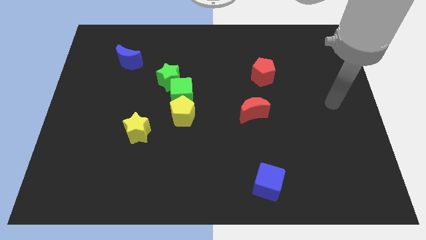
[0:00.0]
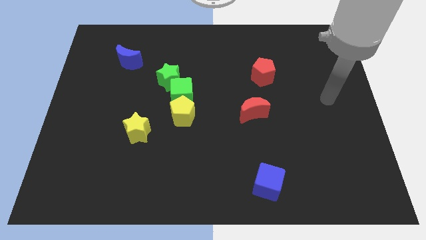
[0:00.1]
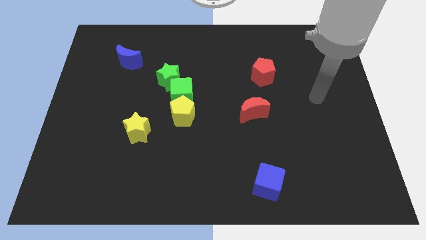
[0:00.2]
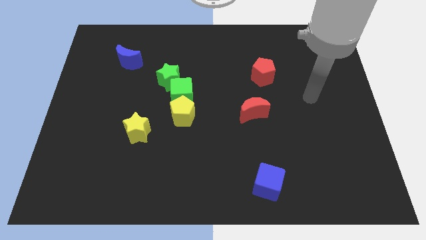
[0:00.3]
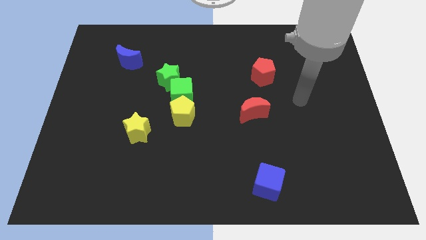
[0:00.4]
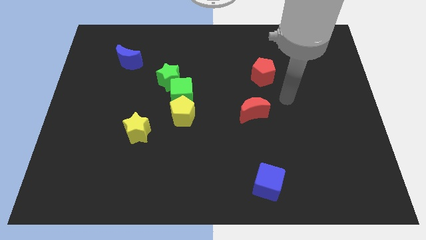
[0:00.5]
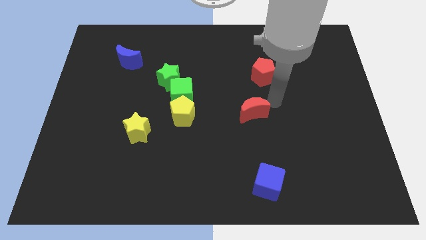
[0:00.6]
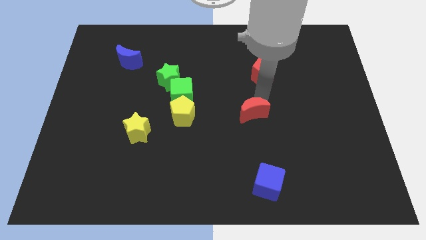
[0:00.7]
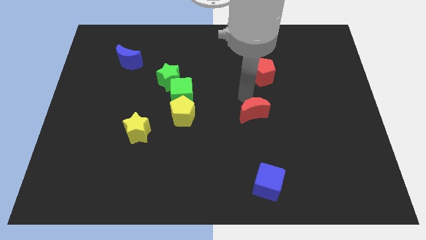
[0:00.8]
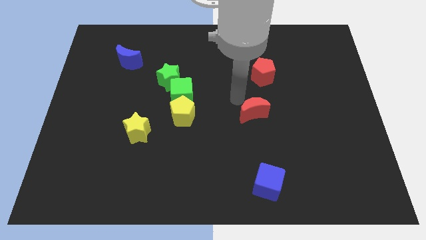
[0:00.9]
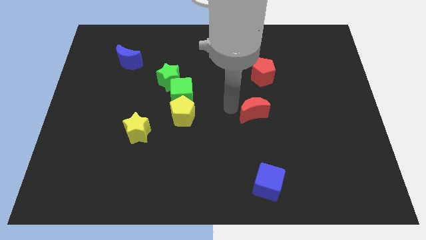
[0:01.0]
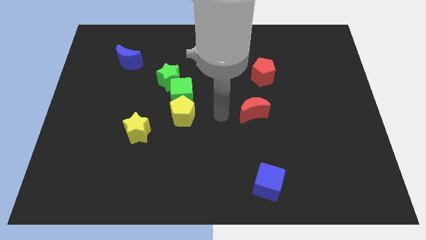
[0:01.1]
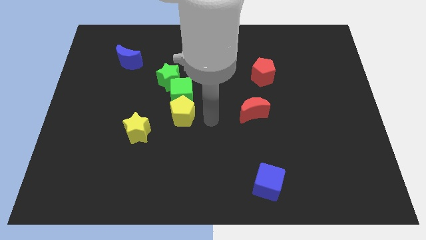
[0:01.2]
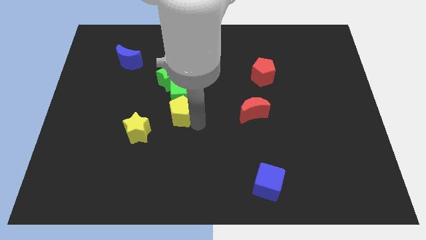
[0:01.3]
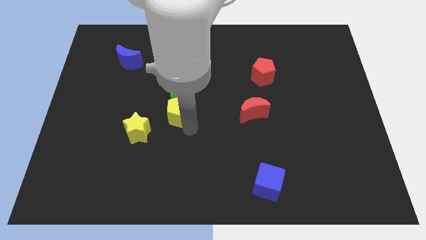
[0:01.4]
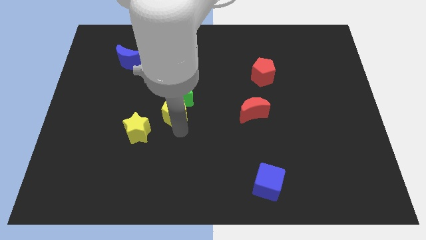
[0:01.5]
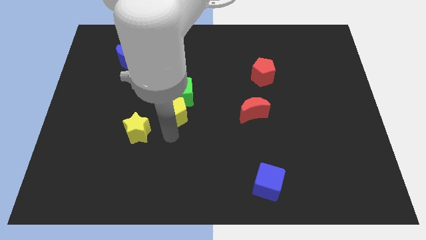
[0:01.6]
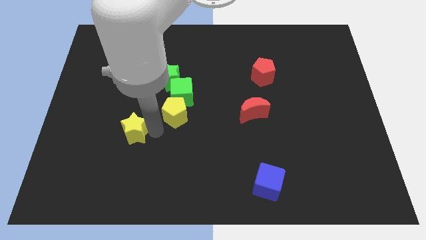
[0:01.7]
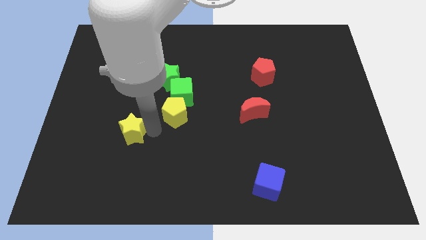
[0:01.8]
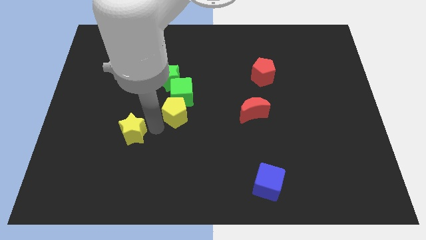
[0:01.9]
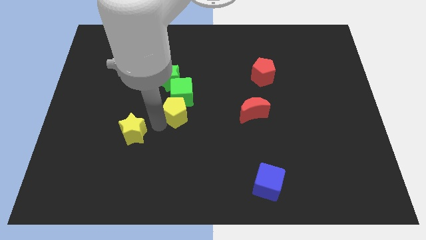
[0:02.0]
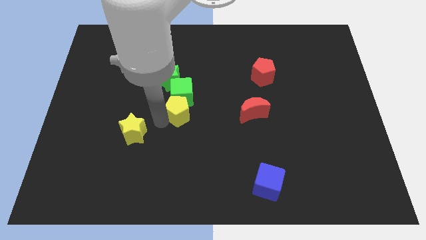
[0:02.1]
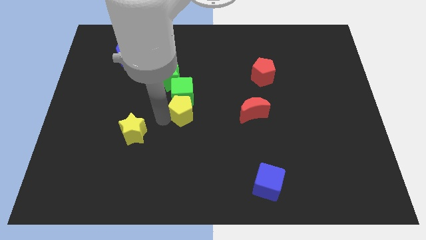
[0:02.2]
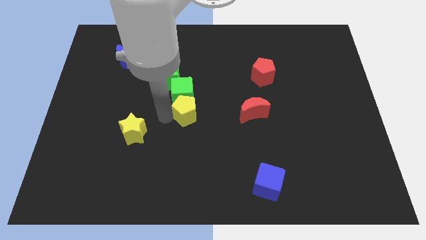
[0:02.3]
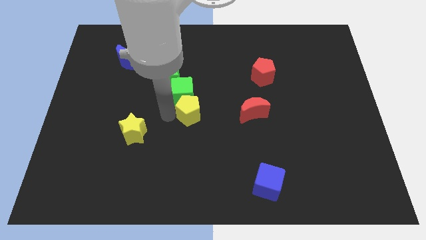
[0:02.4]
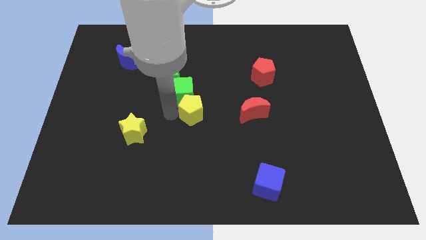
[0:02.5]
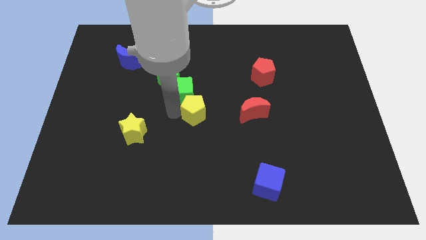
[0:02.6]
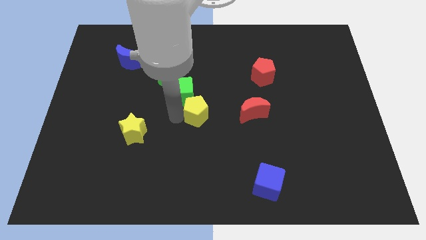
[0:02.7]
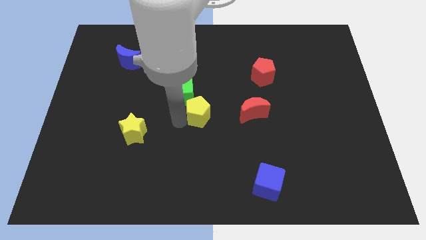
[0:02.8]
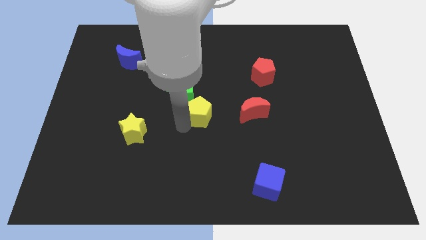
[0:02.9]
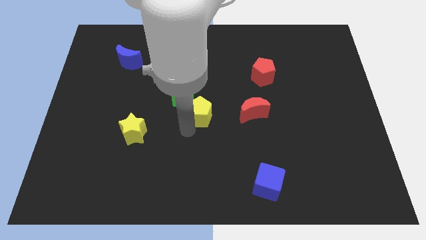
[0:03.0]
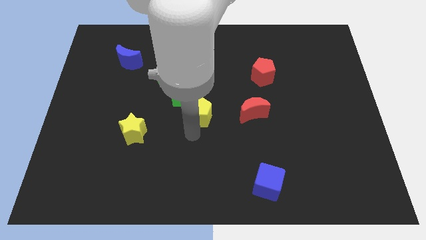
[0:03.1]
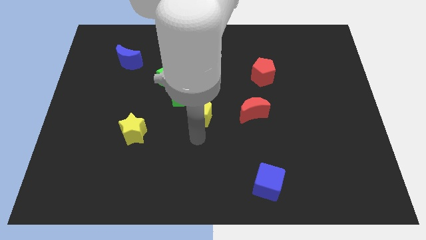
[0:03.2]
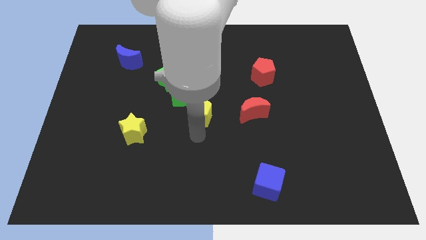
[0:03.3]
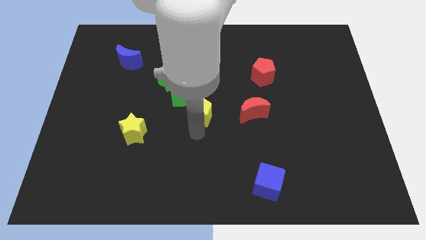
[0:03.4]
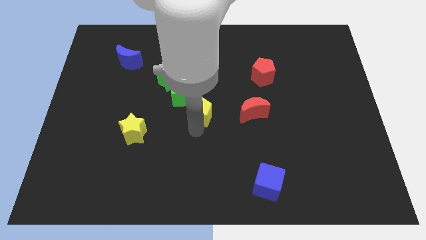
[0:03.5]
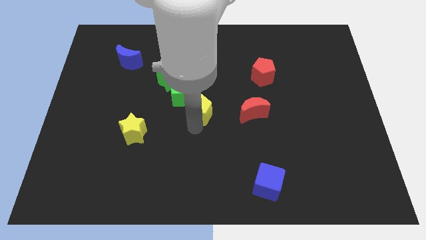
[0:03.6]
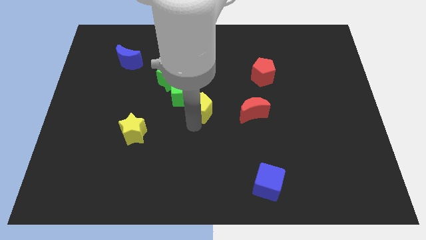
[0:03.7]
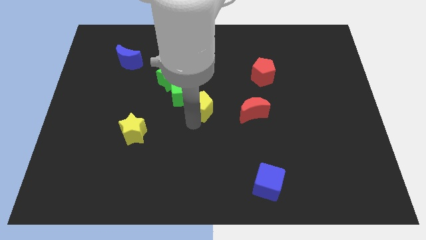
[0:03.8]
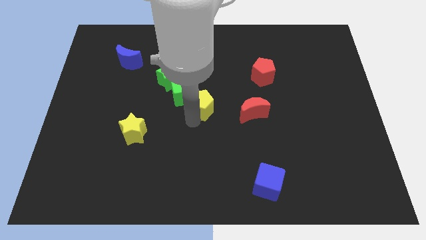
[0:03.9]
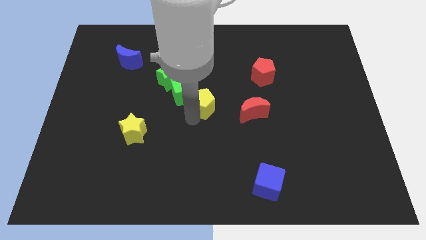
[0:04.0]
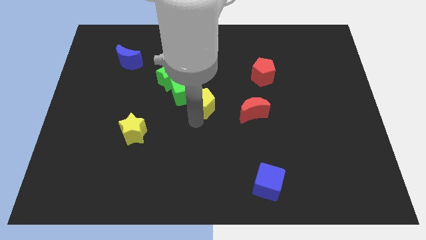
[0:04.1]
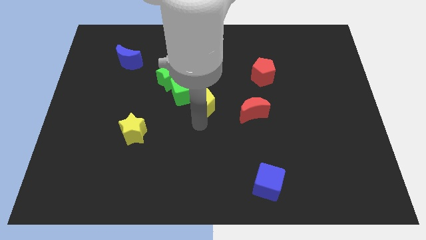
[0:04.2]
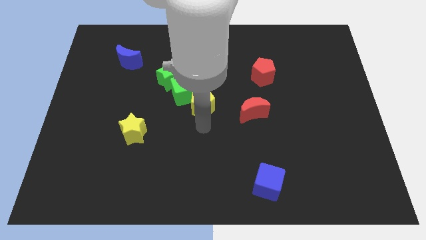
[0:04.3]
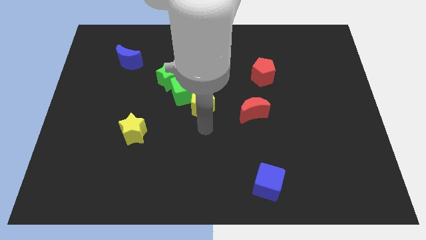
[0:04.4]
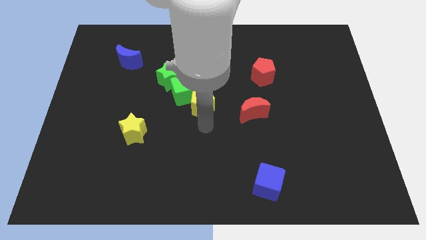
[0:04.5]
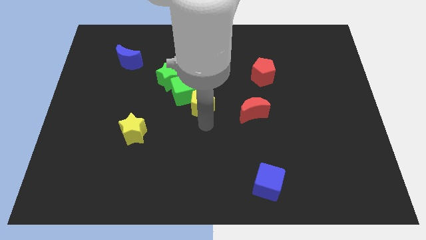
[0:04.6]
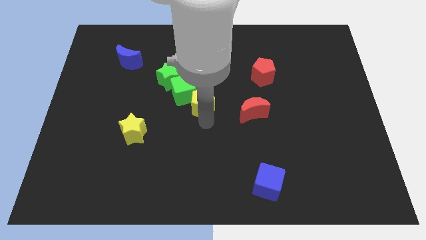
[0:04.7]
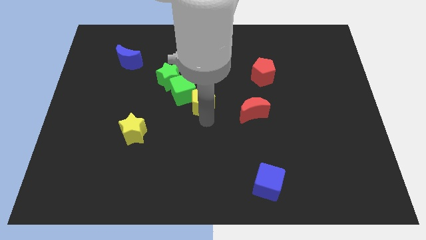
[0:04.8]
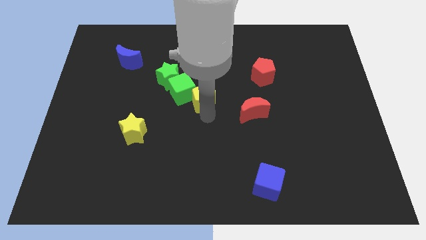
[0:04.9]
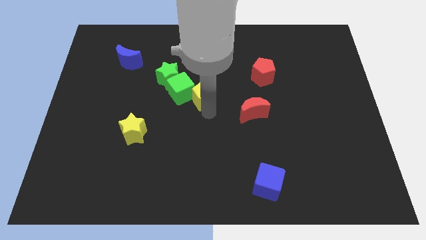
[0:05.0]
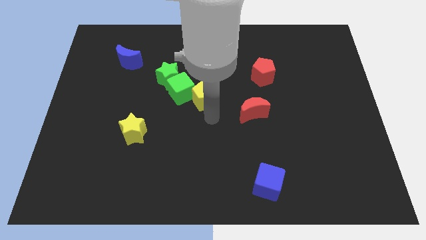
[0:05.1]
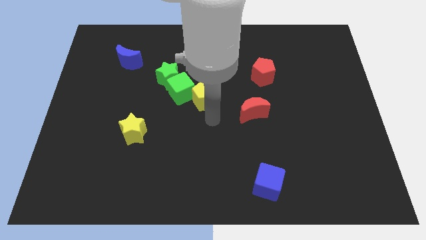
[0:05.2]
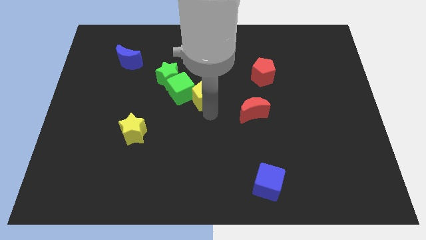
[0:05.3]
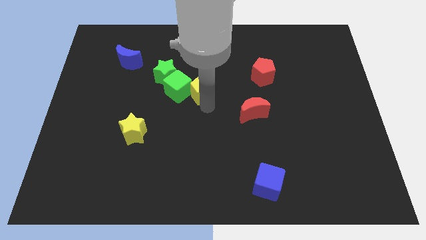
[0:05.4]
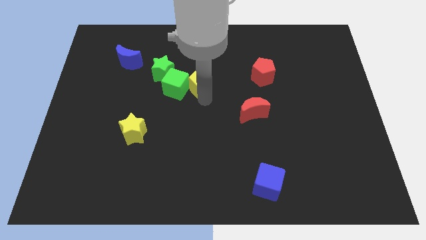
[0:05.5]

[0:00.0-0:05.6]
slide the yellow pentagon somewhat upwards

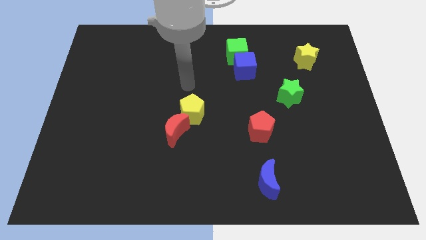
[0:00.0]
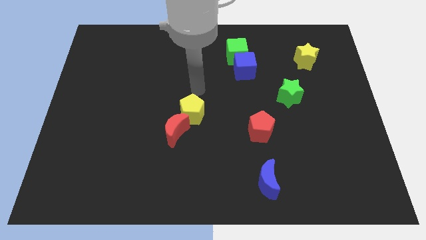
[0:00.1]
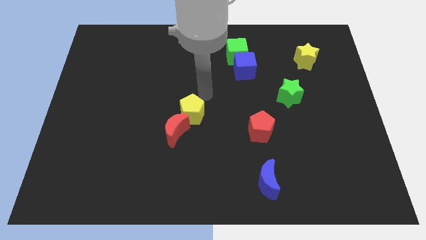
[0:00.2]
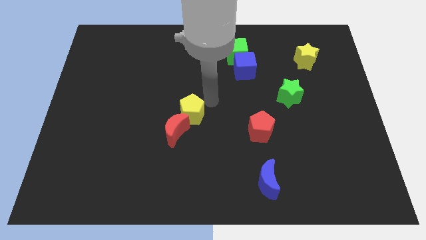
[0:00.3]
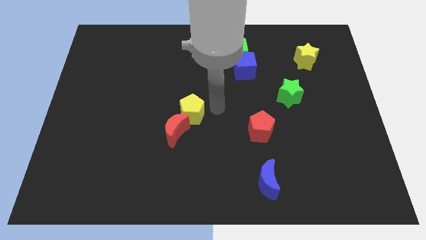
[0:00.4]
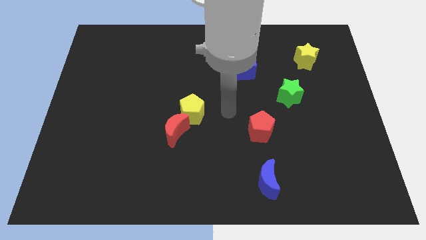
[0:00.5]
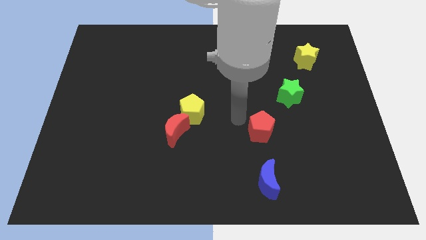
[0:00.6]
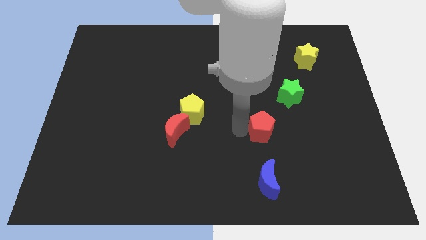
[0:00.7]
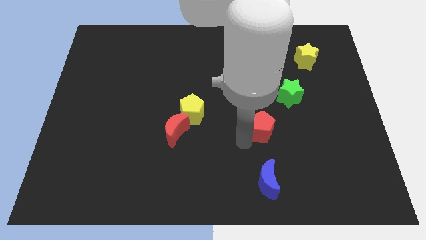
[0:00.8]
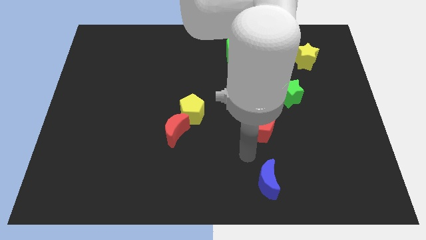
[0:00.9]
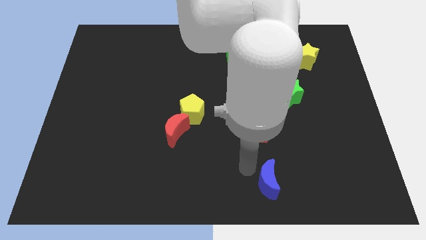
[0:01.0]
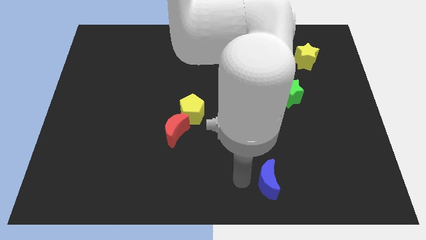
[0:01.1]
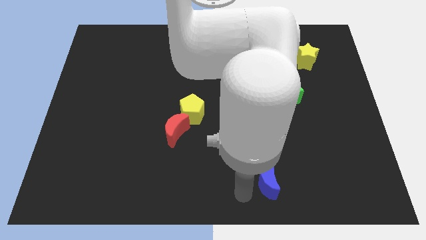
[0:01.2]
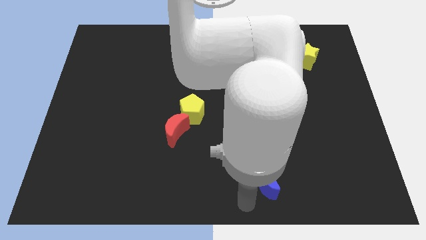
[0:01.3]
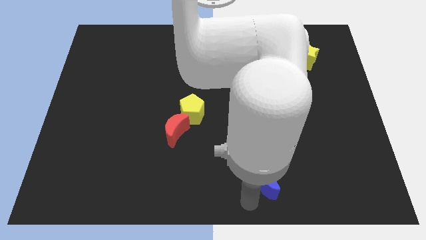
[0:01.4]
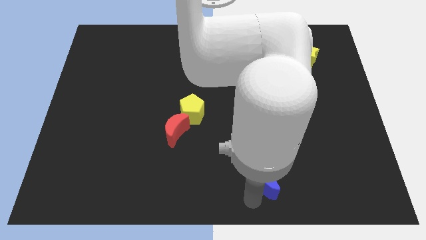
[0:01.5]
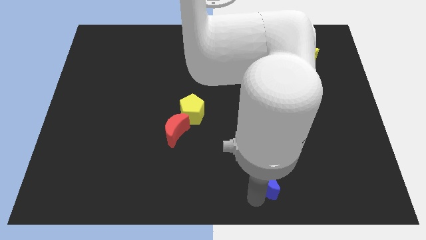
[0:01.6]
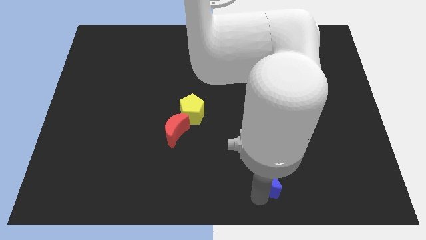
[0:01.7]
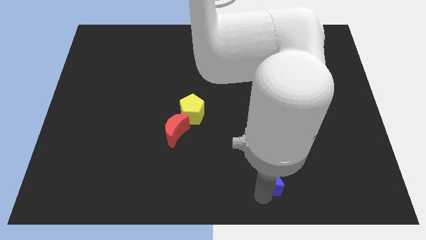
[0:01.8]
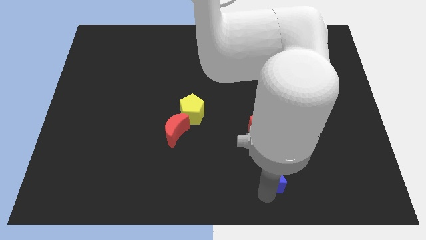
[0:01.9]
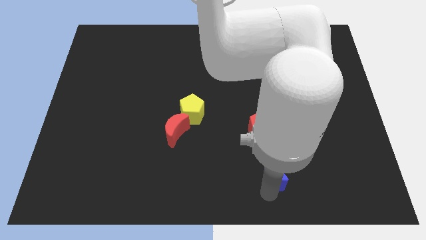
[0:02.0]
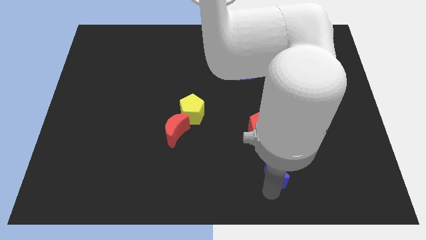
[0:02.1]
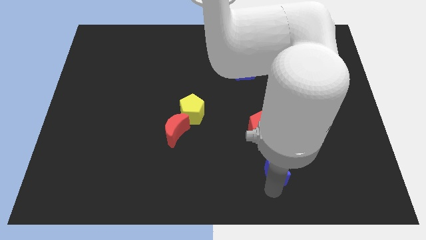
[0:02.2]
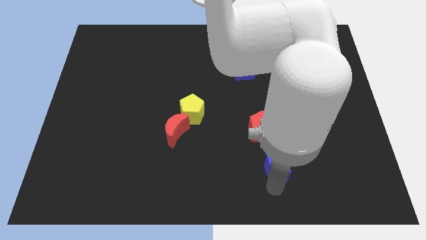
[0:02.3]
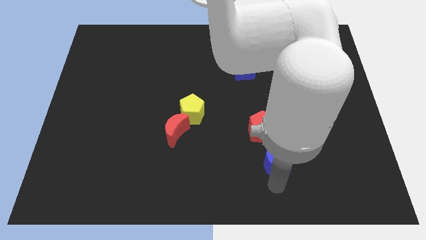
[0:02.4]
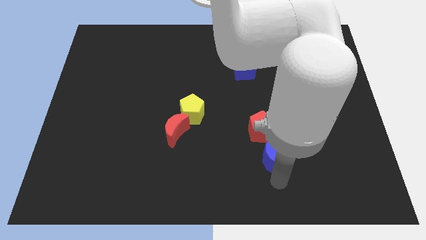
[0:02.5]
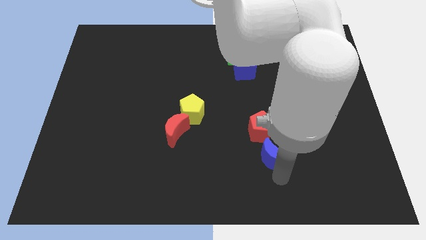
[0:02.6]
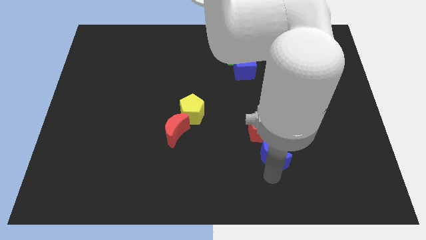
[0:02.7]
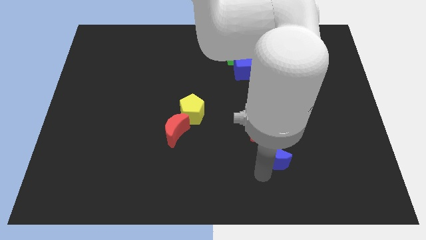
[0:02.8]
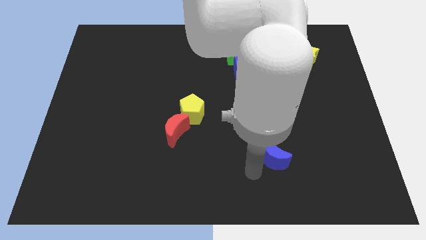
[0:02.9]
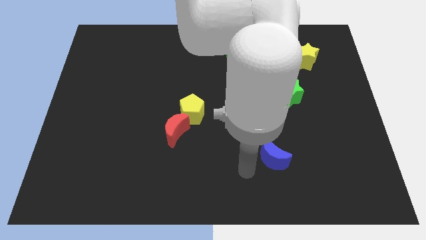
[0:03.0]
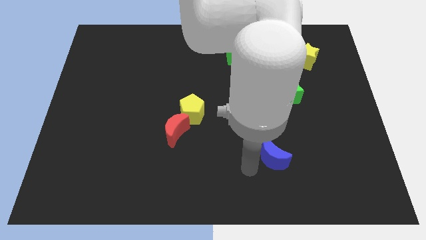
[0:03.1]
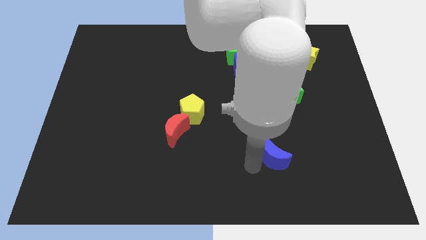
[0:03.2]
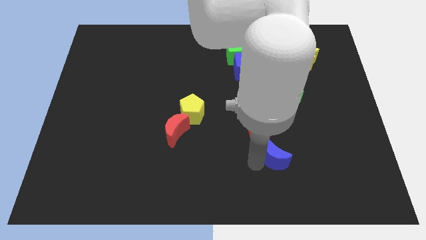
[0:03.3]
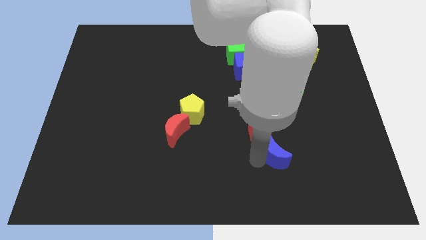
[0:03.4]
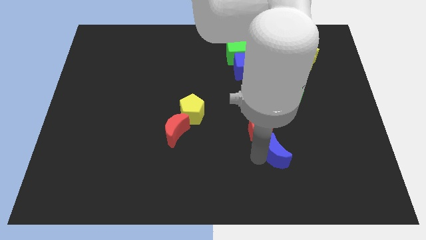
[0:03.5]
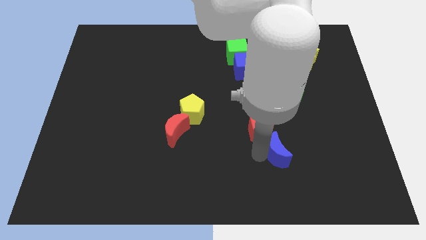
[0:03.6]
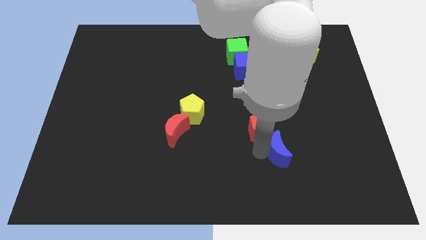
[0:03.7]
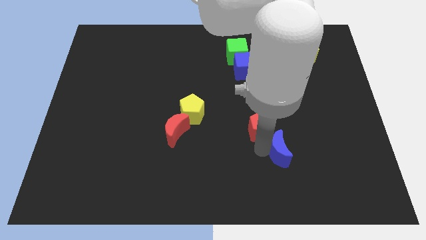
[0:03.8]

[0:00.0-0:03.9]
slightly move the blue moon diagonally upwards and to the right
